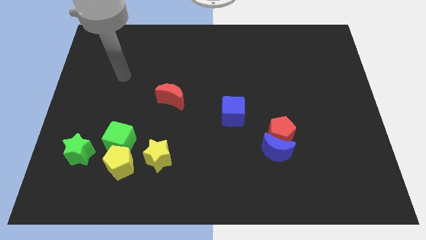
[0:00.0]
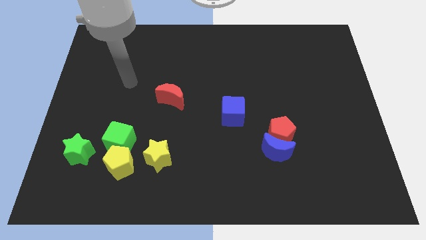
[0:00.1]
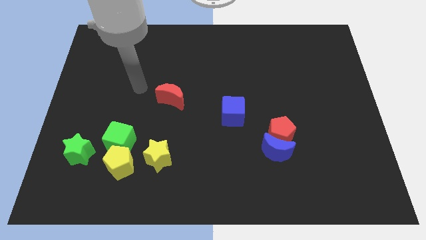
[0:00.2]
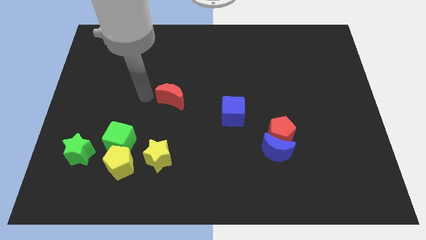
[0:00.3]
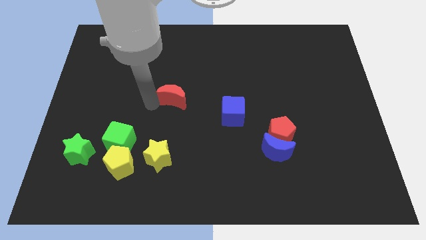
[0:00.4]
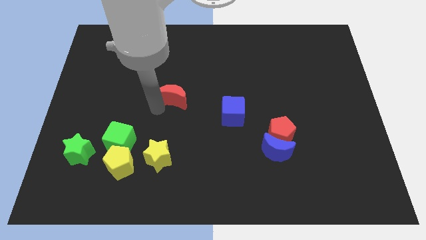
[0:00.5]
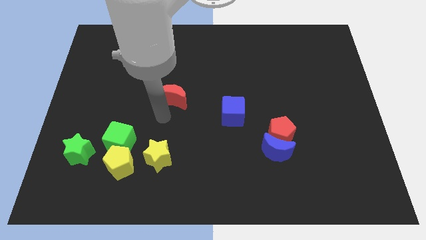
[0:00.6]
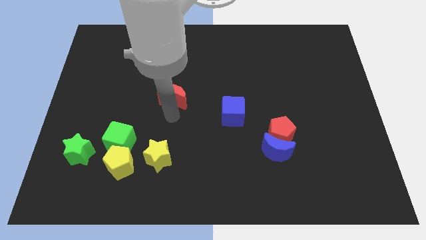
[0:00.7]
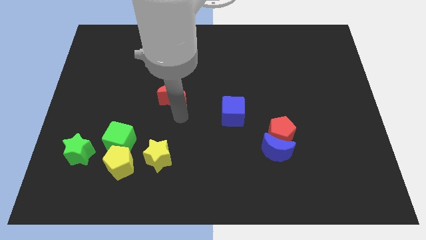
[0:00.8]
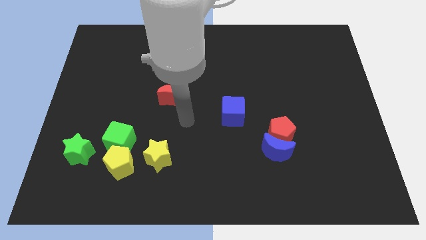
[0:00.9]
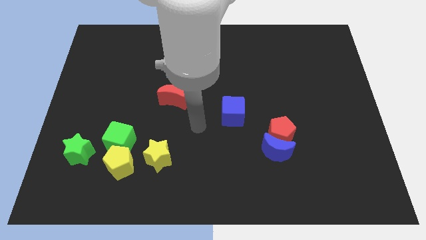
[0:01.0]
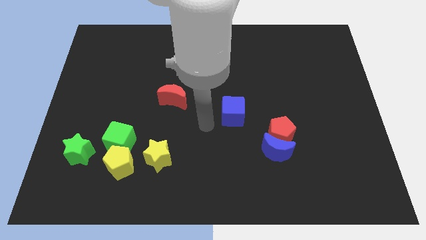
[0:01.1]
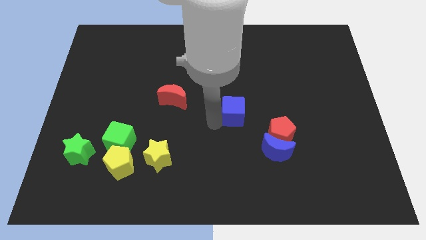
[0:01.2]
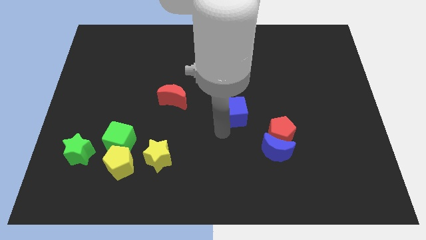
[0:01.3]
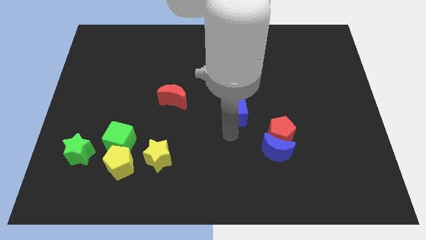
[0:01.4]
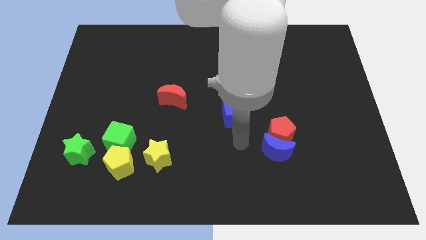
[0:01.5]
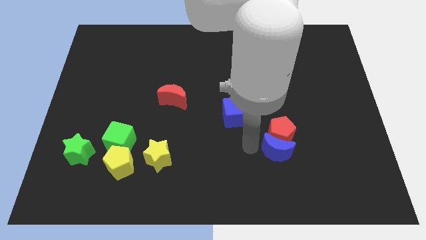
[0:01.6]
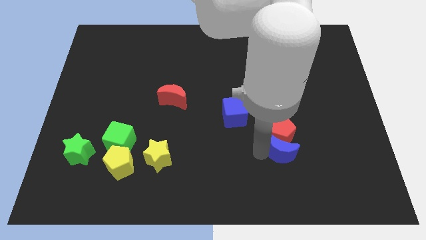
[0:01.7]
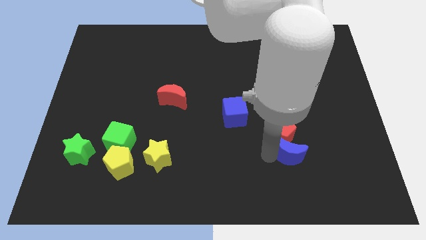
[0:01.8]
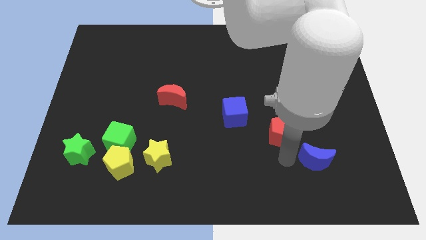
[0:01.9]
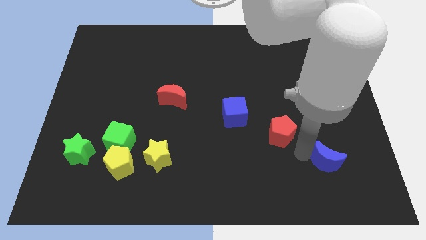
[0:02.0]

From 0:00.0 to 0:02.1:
move the red pentagon away from the blue moon

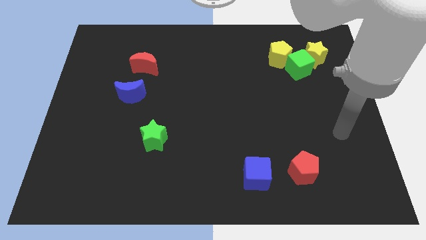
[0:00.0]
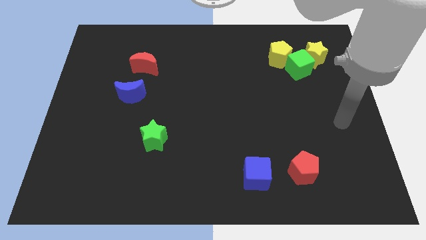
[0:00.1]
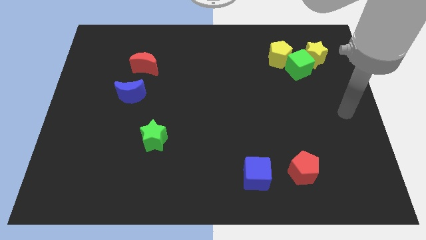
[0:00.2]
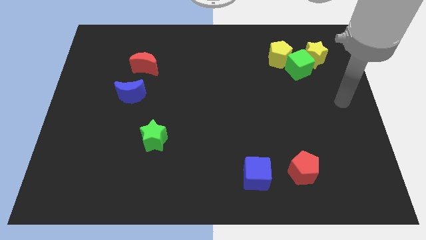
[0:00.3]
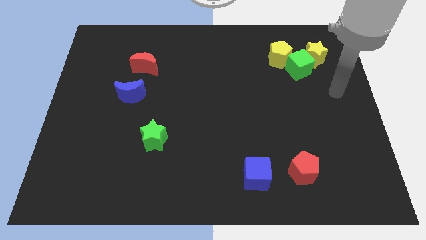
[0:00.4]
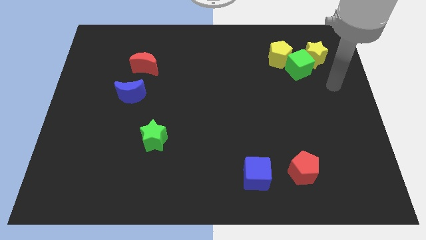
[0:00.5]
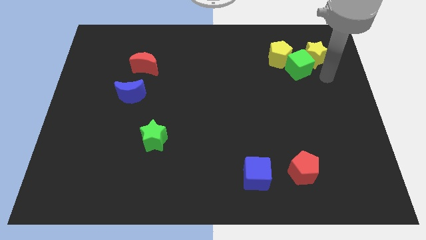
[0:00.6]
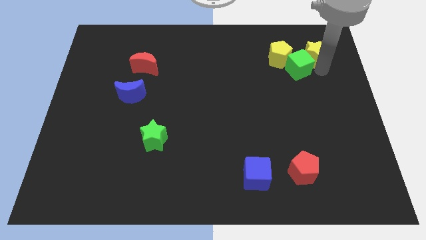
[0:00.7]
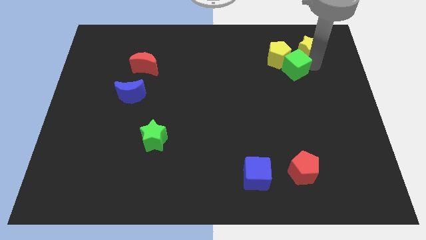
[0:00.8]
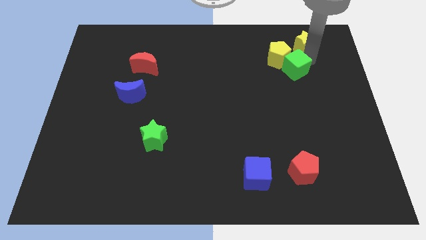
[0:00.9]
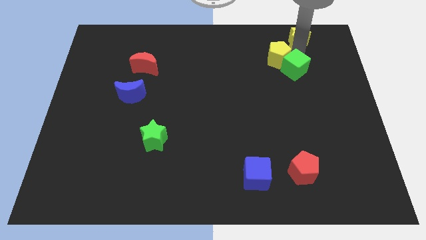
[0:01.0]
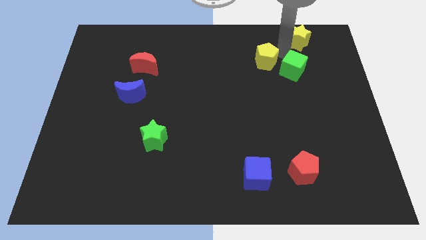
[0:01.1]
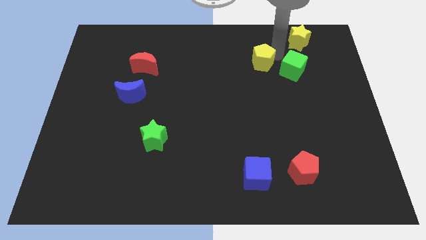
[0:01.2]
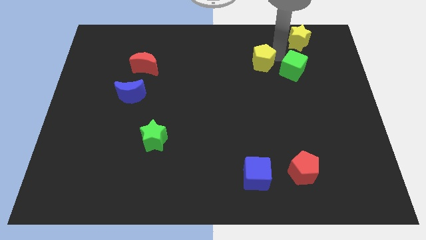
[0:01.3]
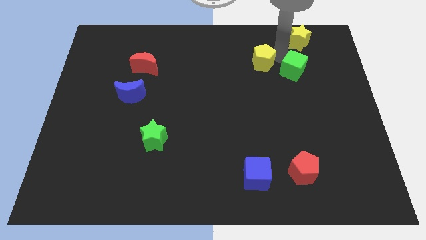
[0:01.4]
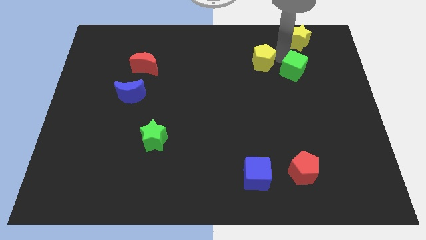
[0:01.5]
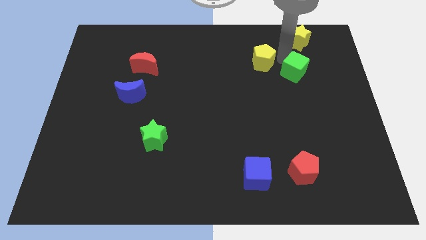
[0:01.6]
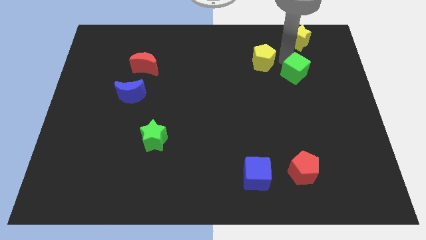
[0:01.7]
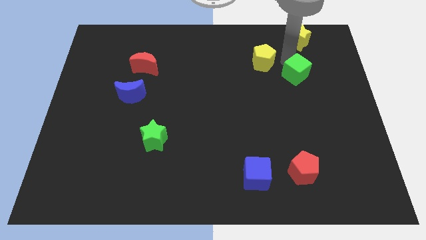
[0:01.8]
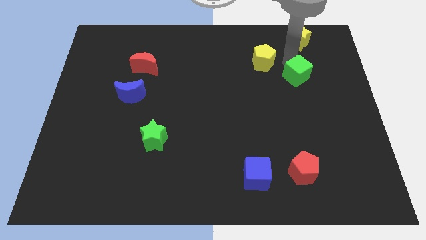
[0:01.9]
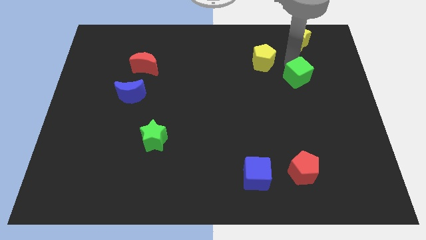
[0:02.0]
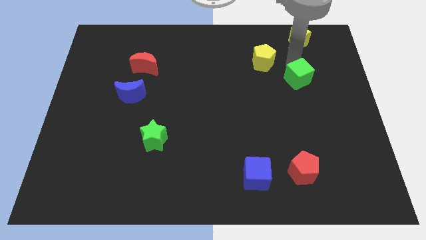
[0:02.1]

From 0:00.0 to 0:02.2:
move the green cube away from the yellow star and yellow pentagon

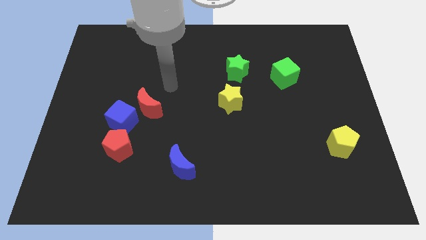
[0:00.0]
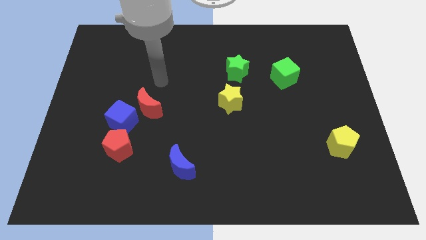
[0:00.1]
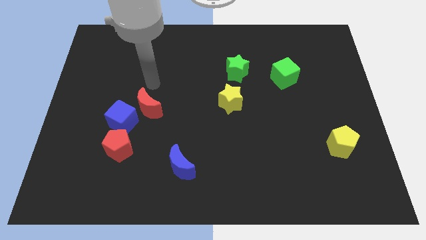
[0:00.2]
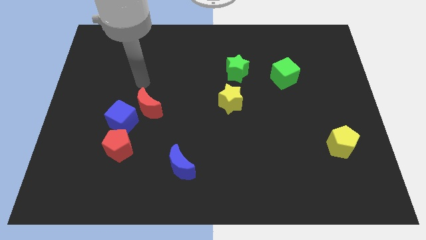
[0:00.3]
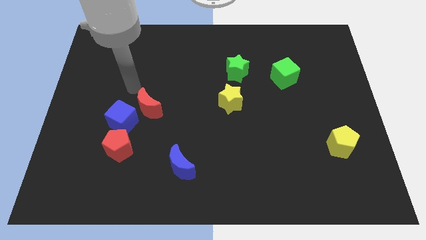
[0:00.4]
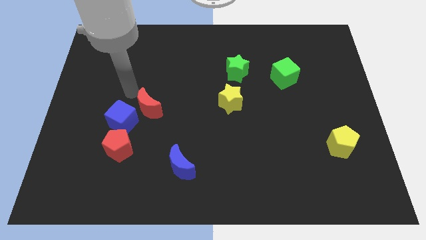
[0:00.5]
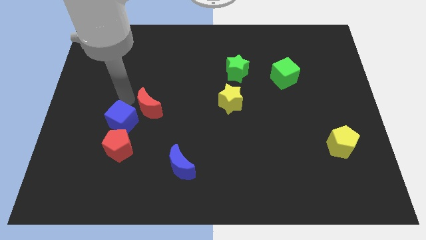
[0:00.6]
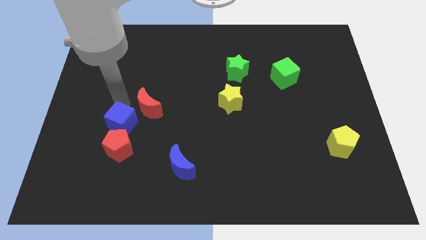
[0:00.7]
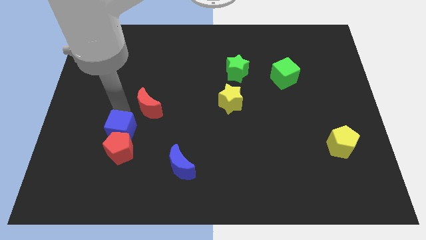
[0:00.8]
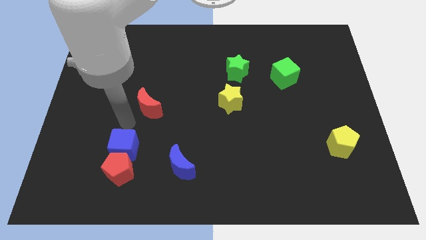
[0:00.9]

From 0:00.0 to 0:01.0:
separate the red moon from the blue cube

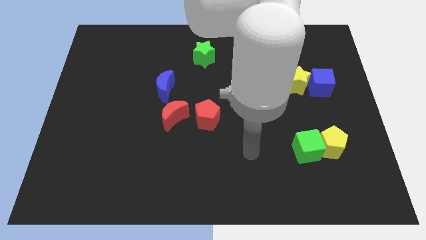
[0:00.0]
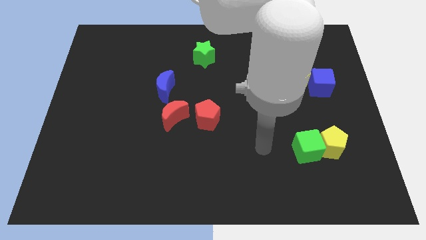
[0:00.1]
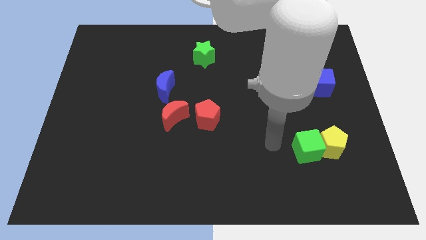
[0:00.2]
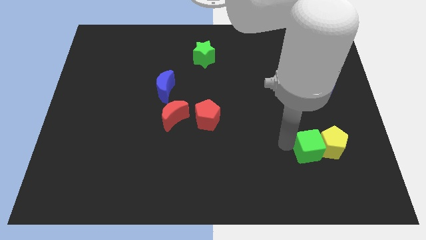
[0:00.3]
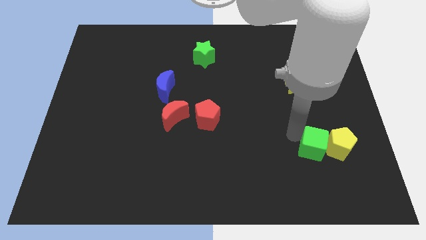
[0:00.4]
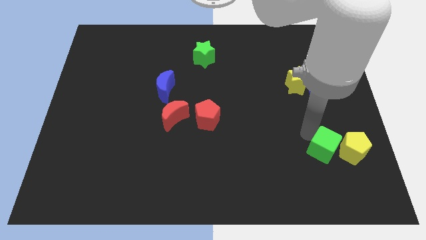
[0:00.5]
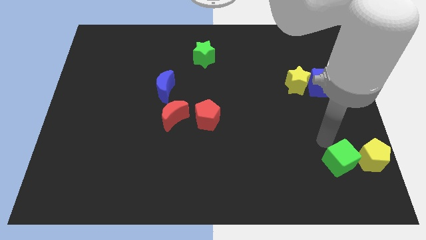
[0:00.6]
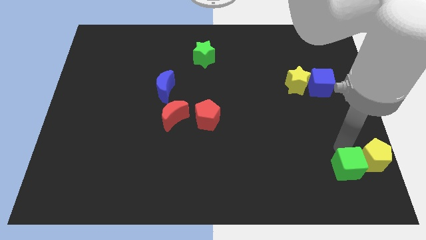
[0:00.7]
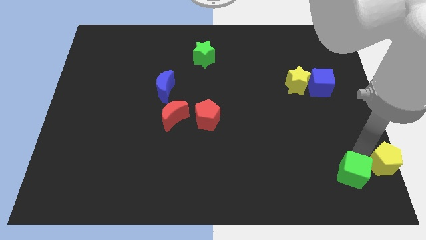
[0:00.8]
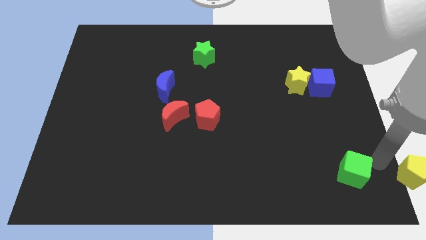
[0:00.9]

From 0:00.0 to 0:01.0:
pull the green cube apart from the yellow pentagon

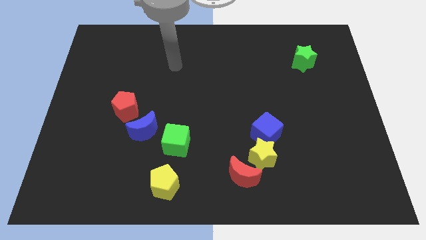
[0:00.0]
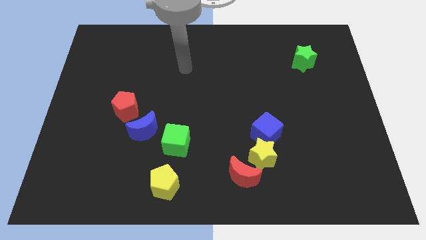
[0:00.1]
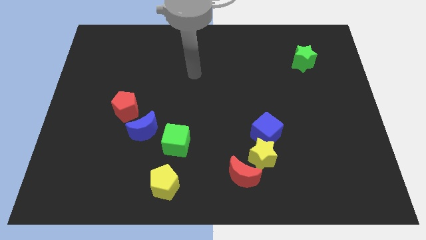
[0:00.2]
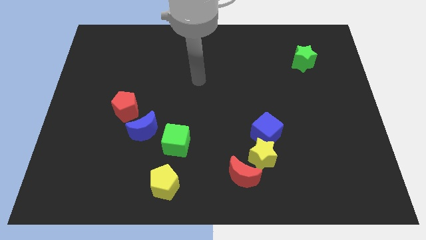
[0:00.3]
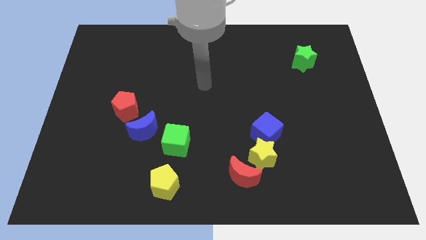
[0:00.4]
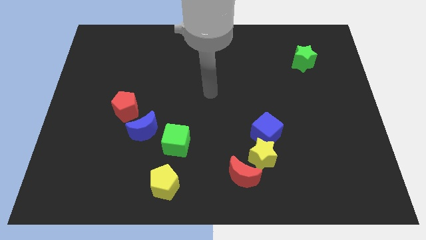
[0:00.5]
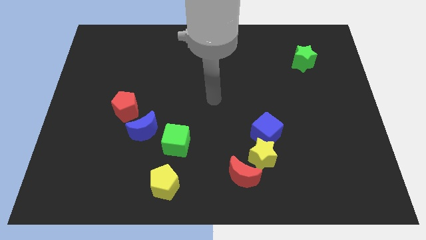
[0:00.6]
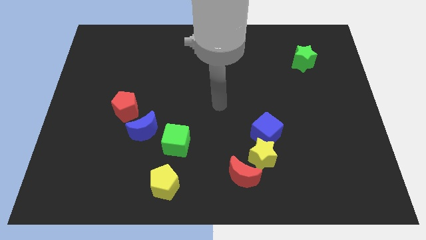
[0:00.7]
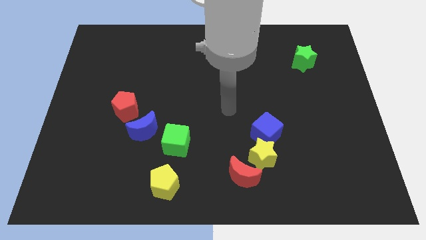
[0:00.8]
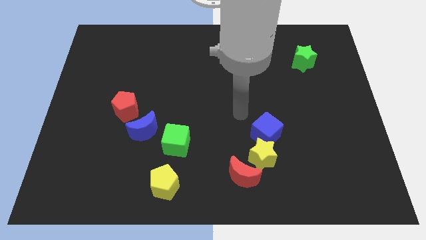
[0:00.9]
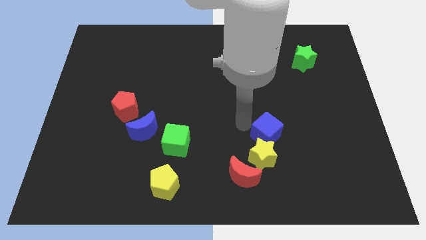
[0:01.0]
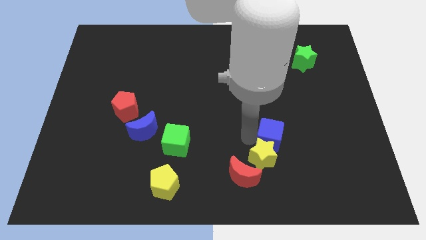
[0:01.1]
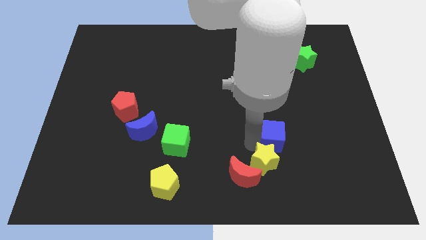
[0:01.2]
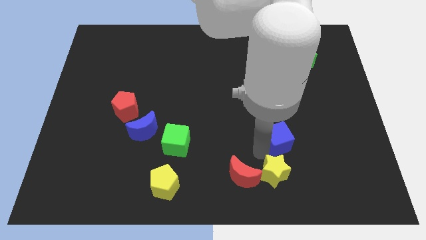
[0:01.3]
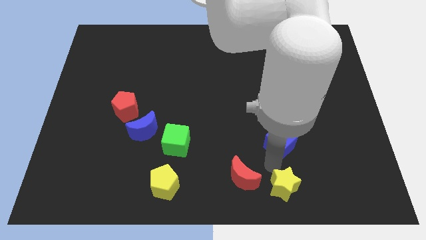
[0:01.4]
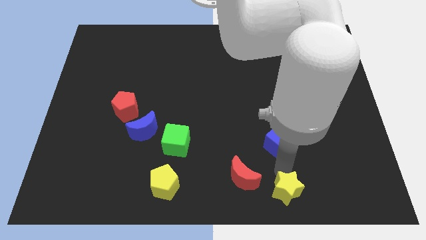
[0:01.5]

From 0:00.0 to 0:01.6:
pull the blue cube apart from the yellow star

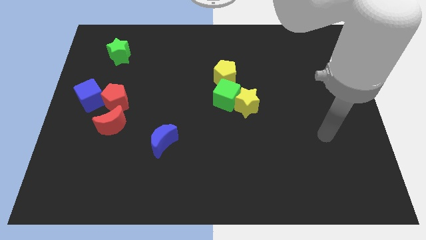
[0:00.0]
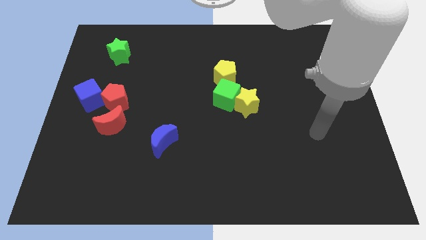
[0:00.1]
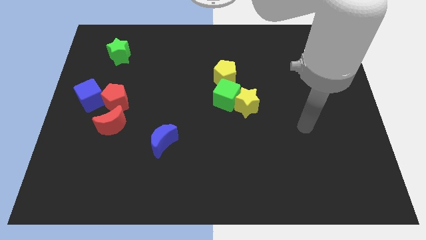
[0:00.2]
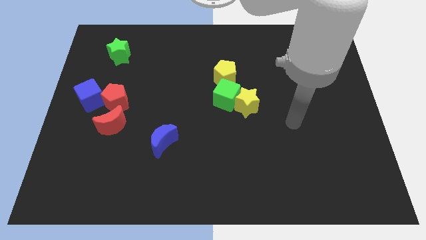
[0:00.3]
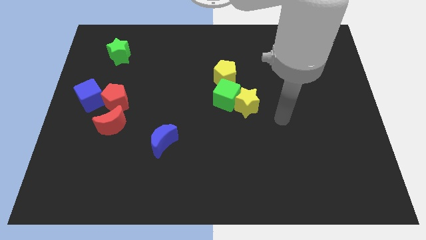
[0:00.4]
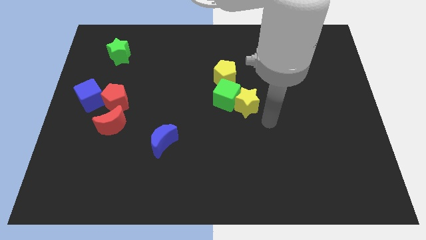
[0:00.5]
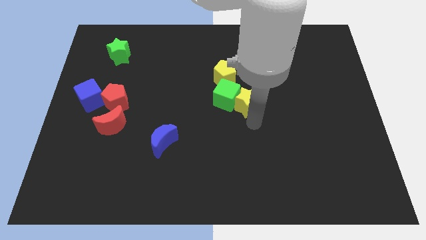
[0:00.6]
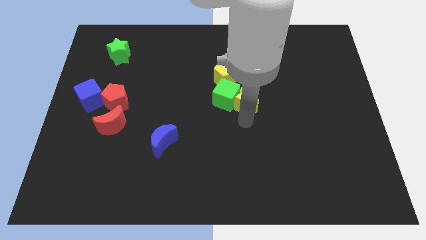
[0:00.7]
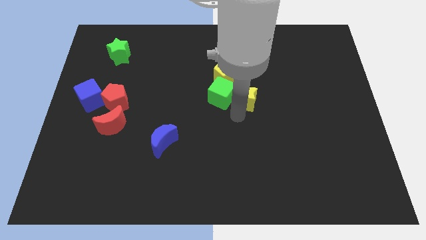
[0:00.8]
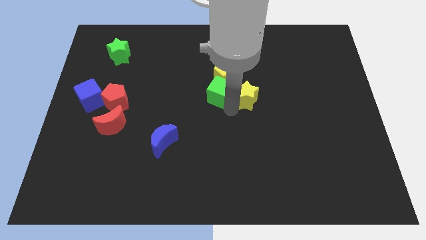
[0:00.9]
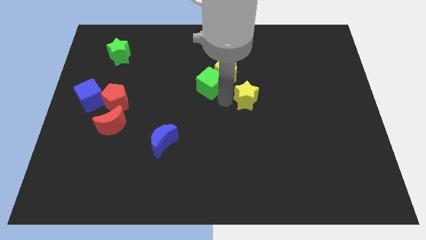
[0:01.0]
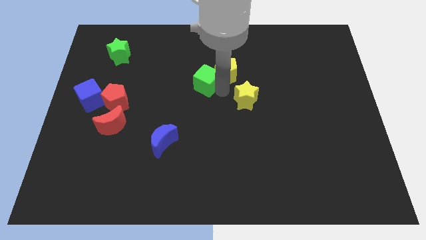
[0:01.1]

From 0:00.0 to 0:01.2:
move the yellow star away from the green cube

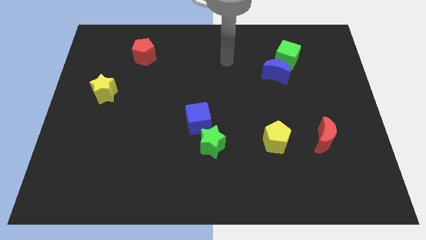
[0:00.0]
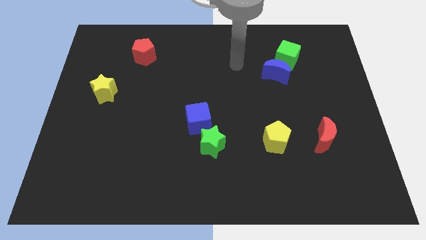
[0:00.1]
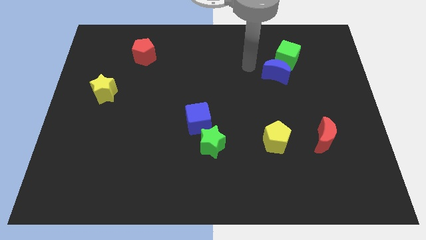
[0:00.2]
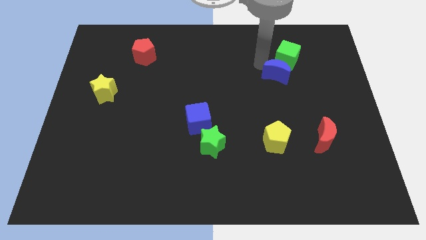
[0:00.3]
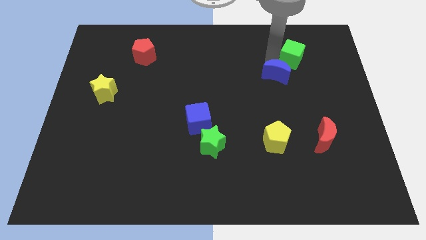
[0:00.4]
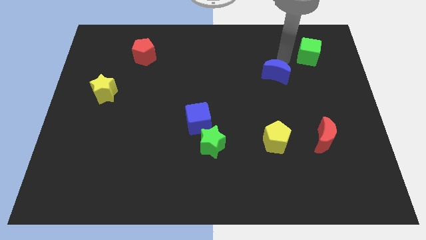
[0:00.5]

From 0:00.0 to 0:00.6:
move the blue moon away from the green cube
